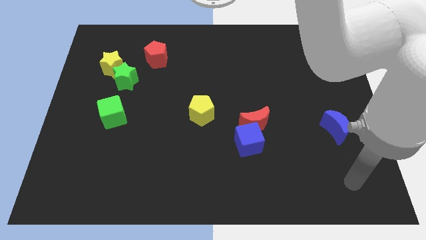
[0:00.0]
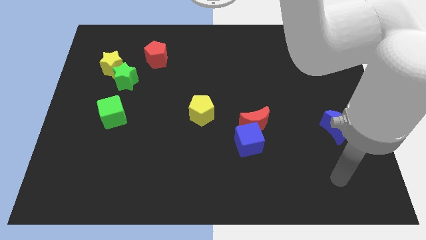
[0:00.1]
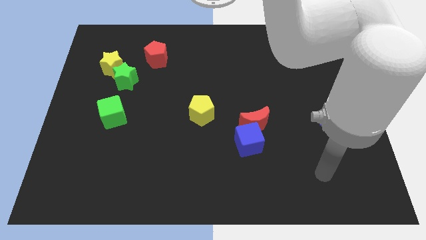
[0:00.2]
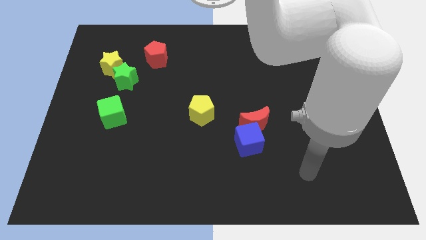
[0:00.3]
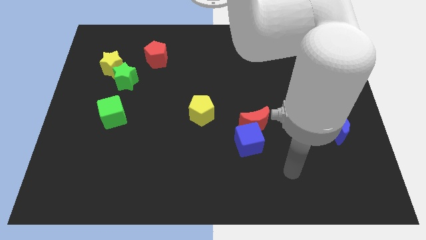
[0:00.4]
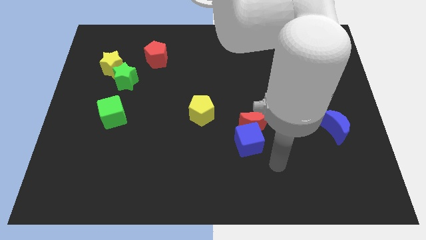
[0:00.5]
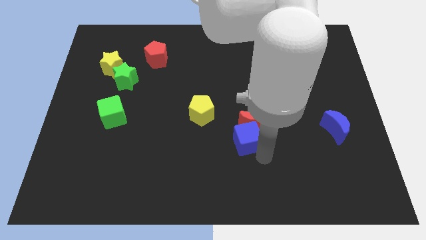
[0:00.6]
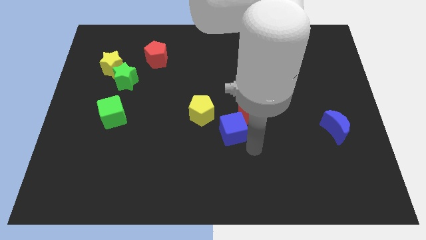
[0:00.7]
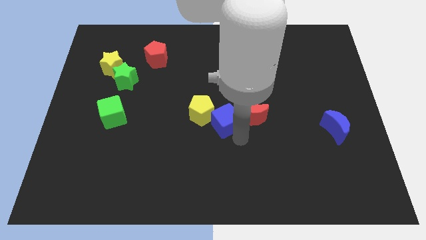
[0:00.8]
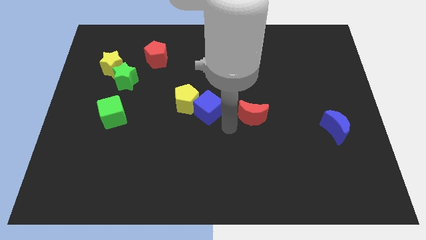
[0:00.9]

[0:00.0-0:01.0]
move the red moon away from the blue cube

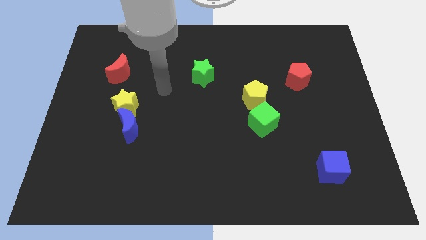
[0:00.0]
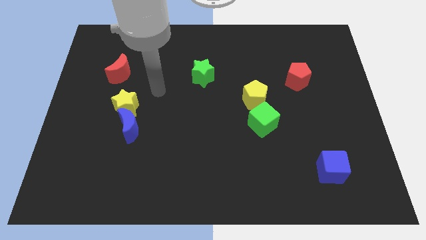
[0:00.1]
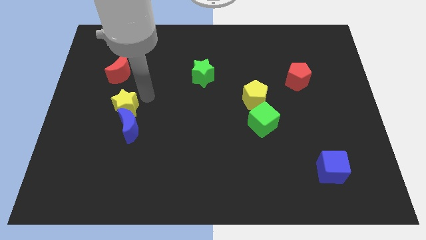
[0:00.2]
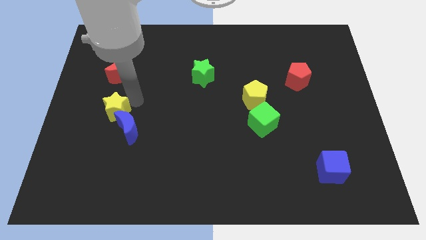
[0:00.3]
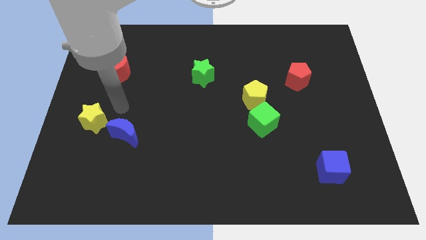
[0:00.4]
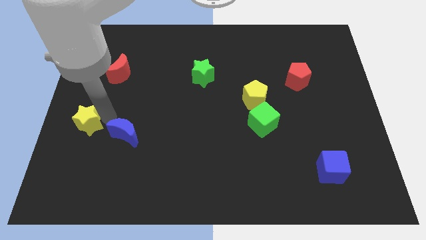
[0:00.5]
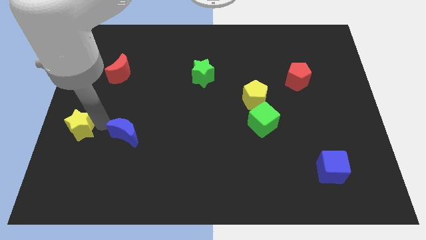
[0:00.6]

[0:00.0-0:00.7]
separate the blue moon from the yellow star

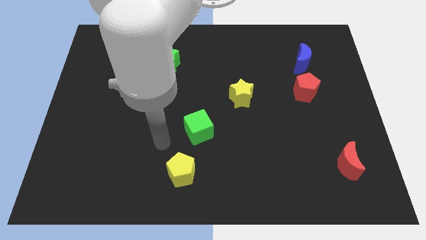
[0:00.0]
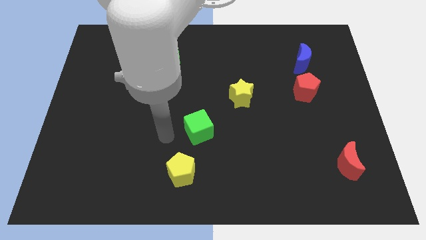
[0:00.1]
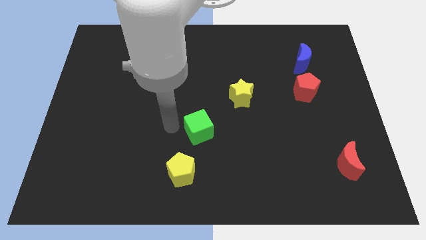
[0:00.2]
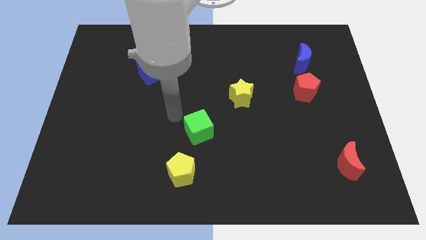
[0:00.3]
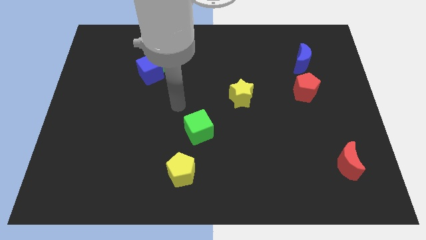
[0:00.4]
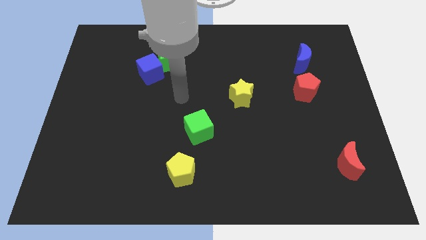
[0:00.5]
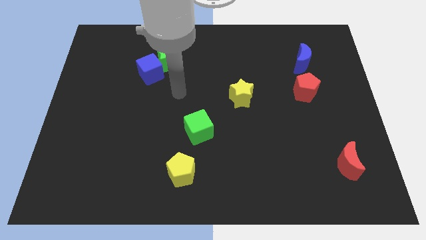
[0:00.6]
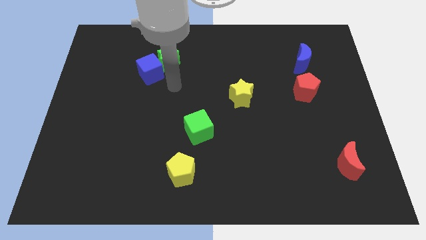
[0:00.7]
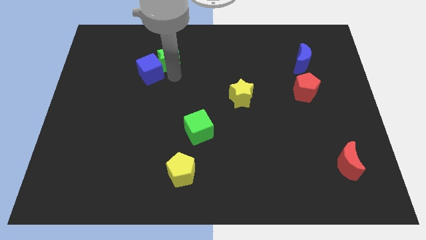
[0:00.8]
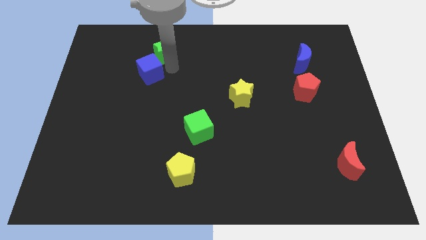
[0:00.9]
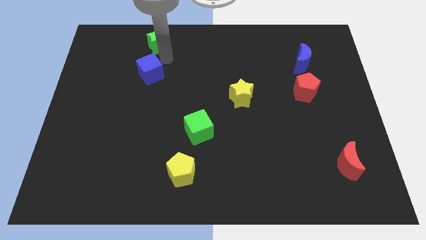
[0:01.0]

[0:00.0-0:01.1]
separate the blue cube from the green star

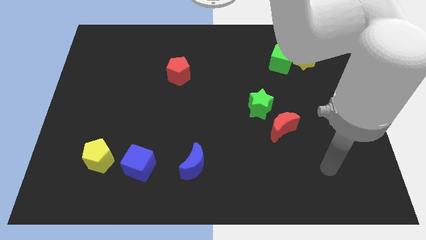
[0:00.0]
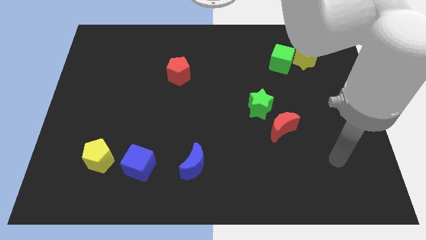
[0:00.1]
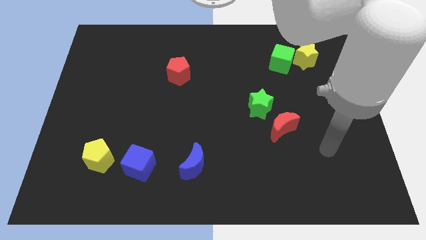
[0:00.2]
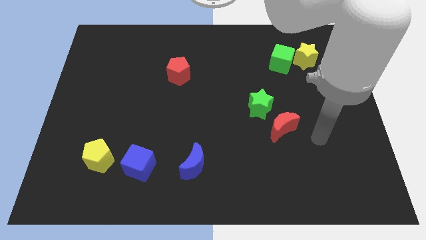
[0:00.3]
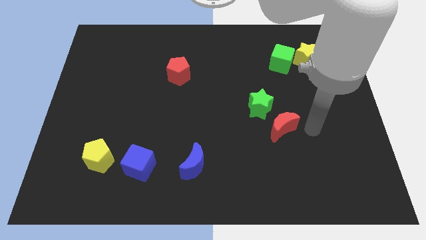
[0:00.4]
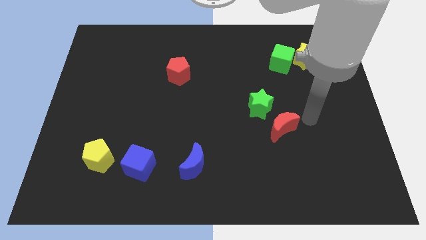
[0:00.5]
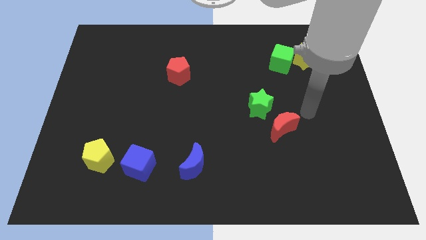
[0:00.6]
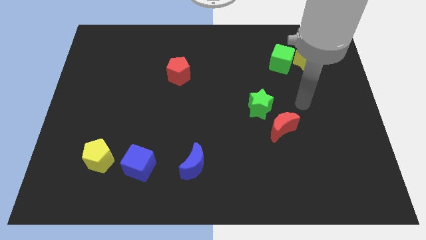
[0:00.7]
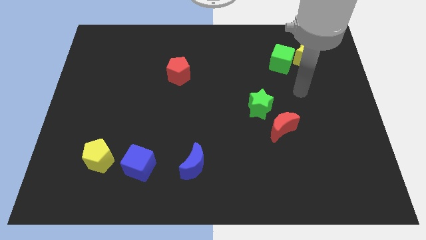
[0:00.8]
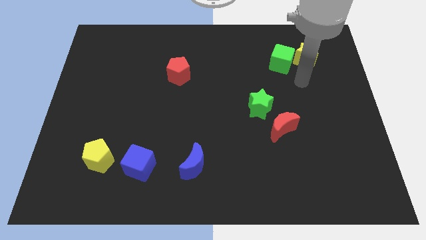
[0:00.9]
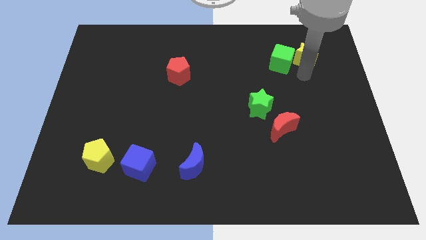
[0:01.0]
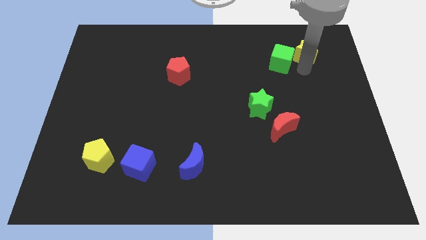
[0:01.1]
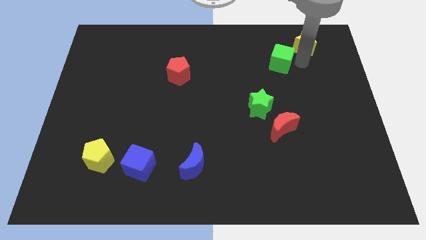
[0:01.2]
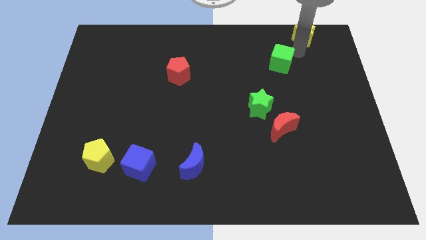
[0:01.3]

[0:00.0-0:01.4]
separate the green cube from the yellow star

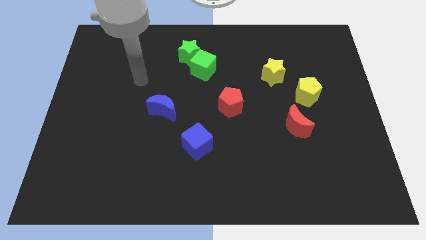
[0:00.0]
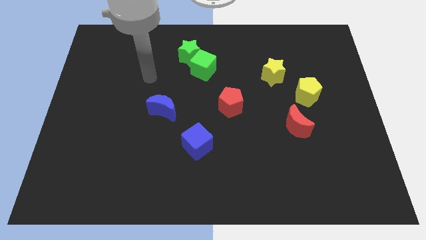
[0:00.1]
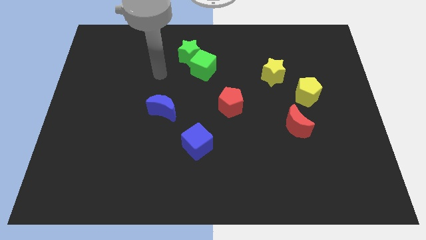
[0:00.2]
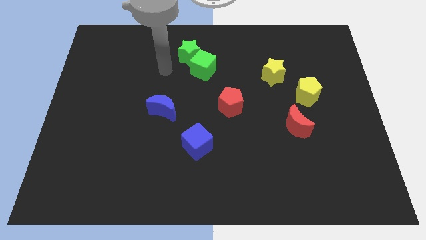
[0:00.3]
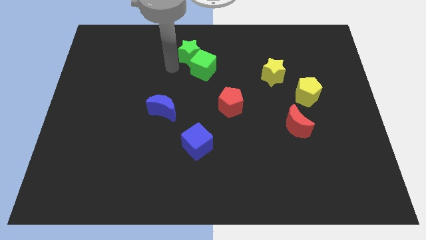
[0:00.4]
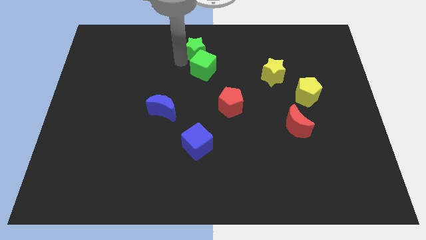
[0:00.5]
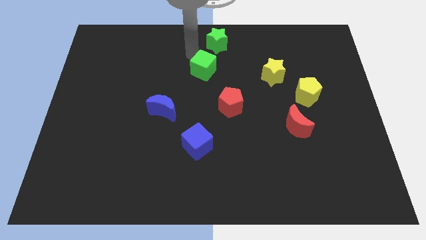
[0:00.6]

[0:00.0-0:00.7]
move the green cube away from the green star

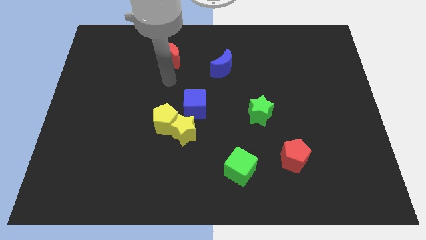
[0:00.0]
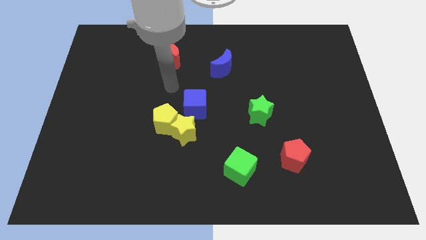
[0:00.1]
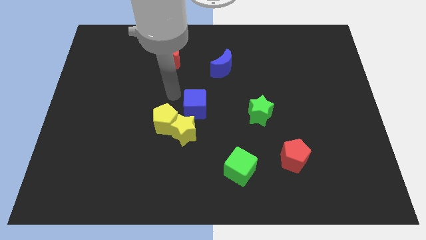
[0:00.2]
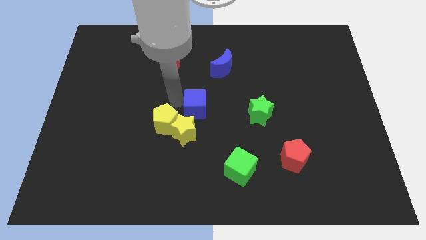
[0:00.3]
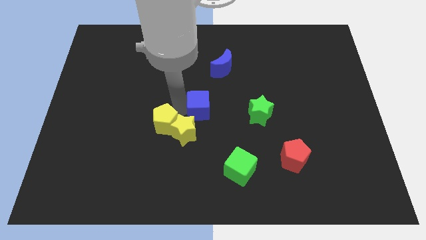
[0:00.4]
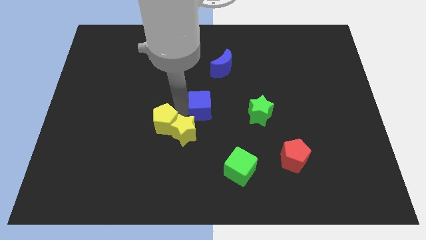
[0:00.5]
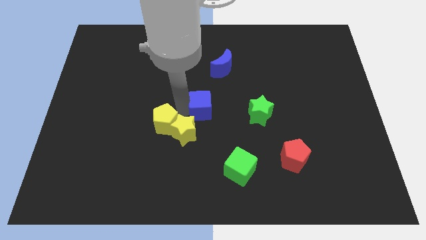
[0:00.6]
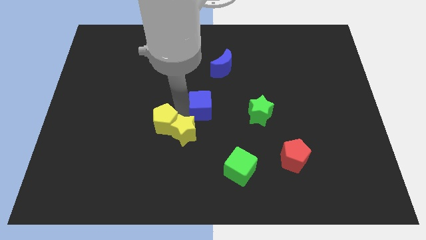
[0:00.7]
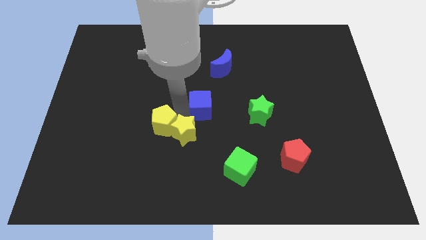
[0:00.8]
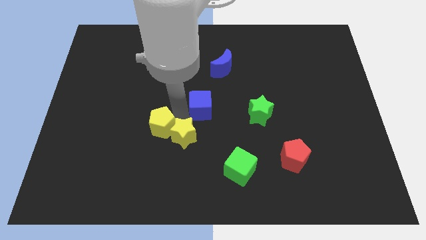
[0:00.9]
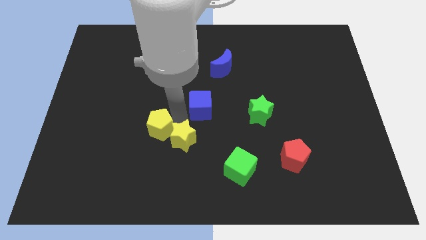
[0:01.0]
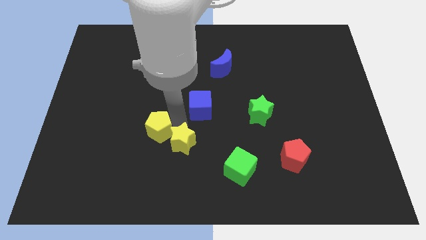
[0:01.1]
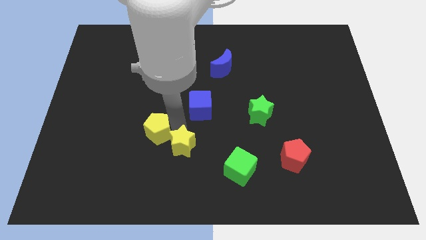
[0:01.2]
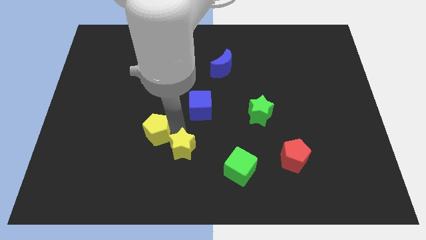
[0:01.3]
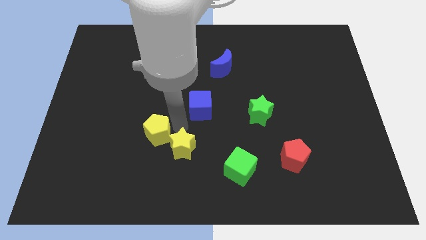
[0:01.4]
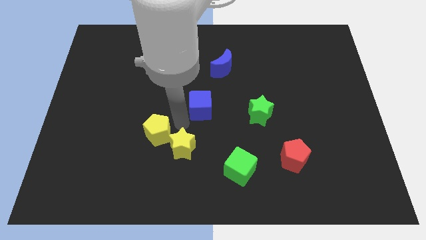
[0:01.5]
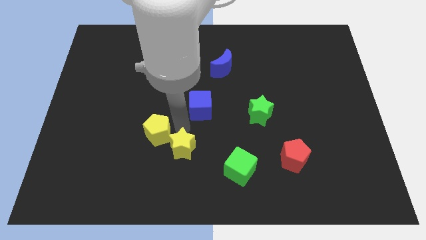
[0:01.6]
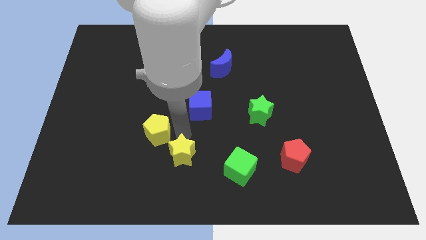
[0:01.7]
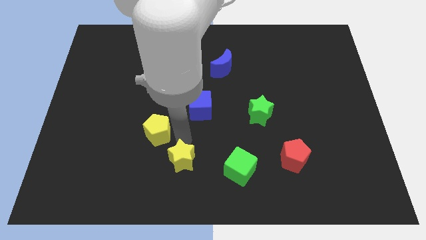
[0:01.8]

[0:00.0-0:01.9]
pull the yellow star apart from the yellow pentagon and blue cube

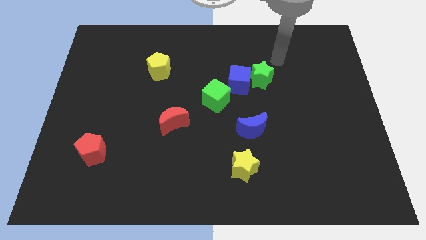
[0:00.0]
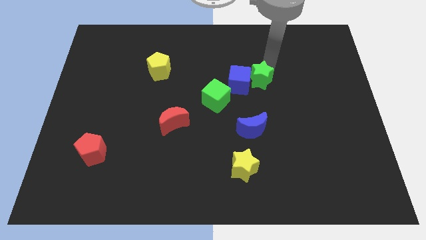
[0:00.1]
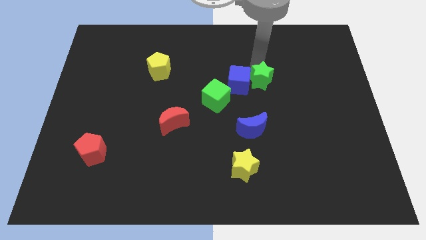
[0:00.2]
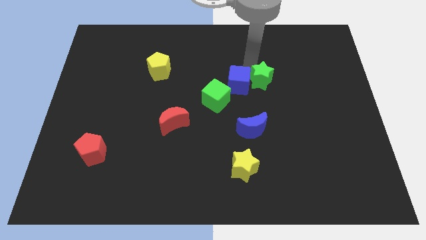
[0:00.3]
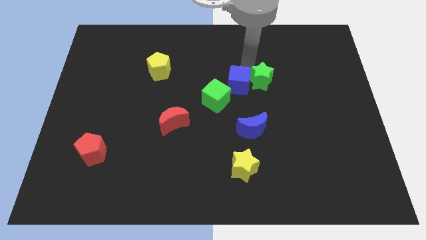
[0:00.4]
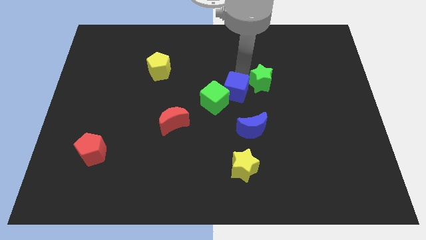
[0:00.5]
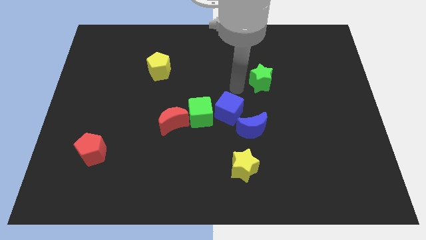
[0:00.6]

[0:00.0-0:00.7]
move the green star away from the blue cube

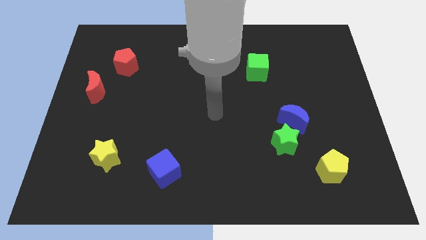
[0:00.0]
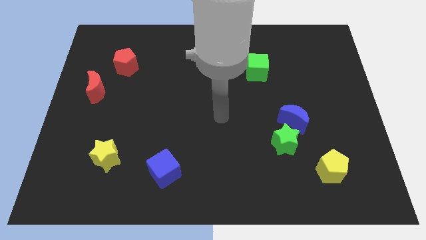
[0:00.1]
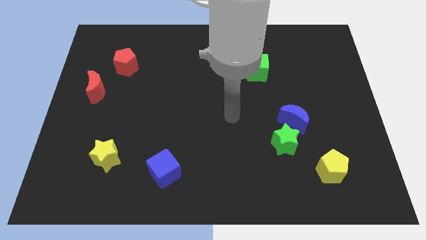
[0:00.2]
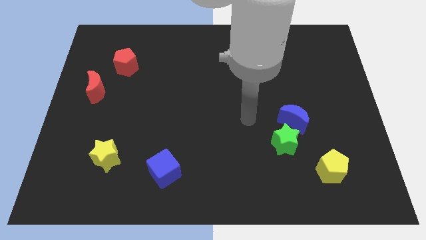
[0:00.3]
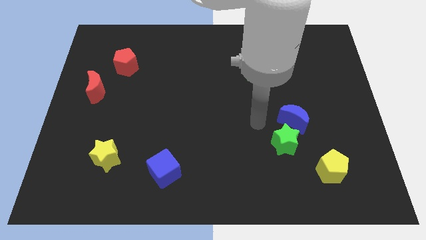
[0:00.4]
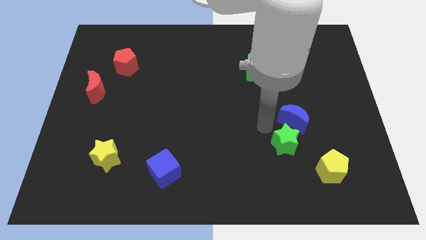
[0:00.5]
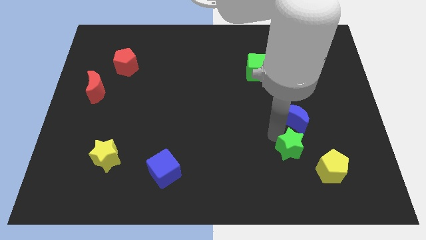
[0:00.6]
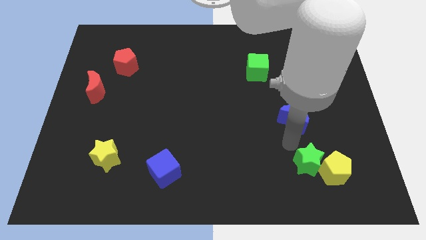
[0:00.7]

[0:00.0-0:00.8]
pull the blue moon apart from the green star

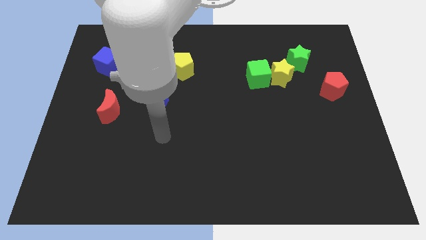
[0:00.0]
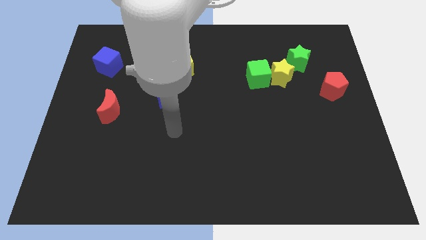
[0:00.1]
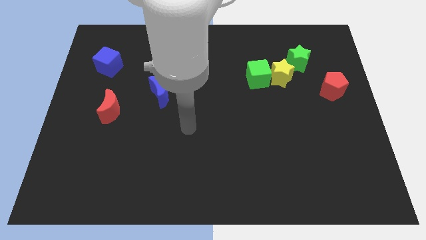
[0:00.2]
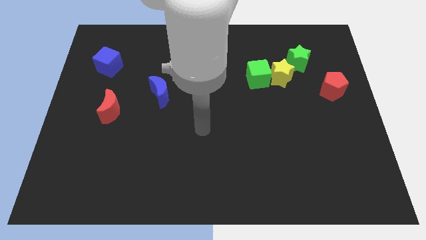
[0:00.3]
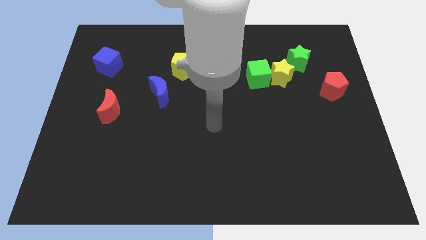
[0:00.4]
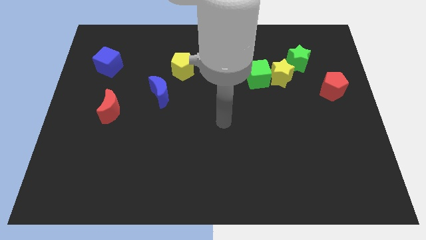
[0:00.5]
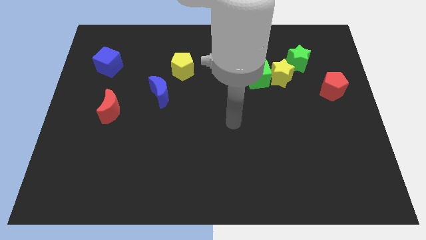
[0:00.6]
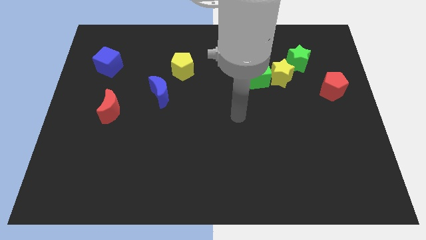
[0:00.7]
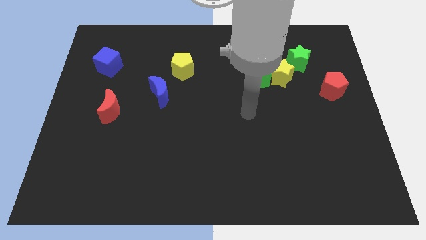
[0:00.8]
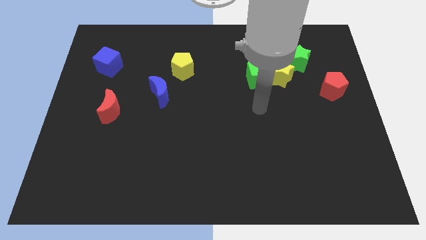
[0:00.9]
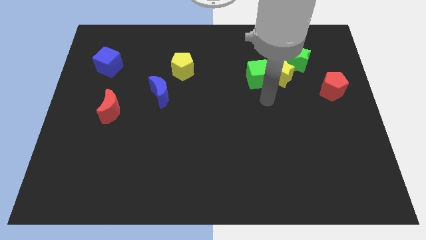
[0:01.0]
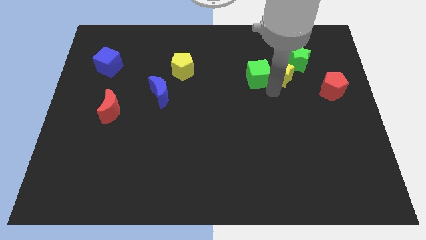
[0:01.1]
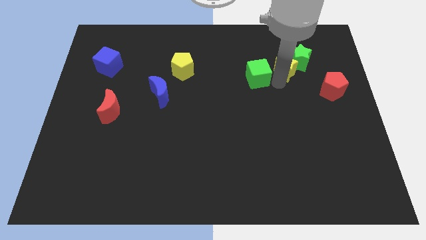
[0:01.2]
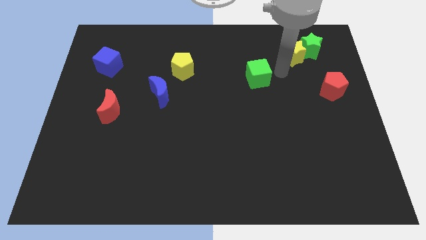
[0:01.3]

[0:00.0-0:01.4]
pull the green cube apart from the yellow star
